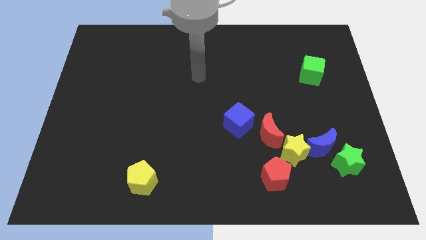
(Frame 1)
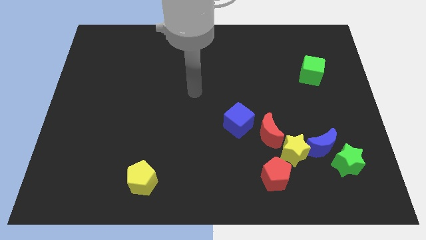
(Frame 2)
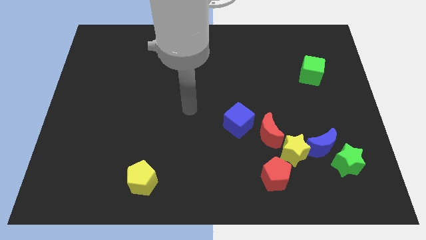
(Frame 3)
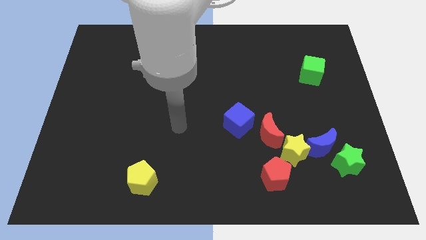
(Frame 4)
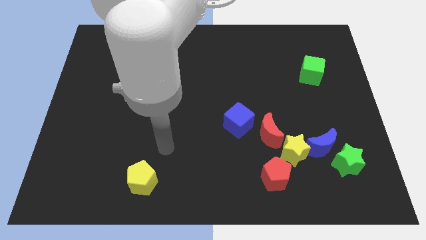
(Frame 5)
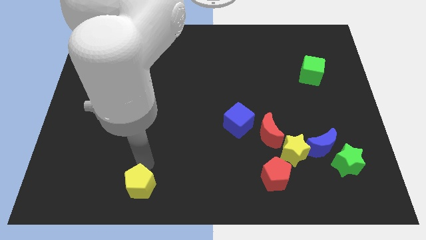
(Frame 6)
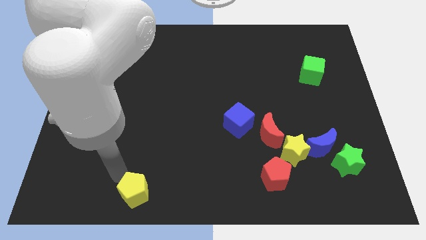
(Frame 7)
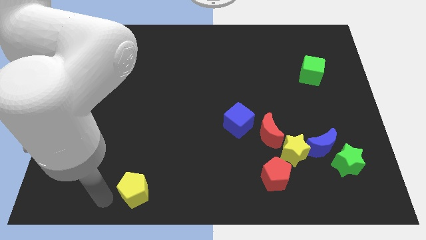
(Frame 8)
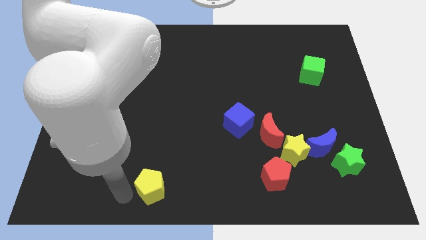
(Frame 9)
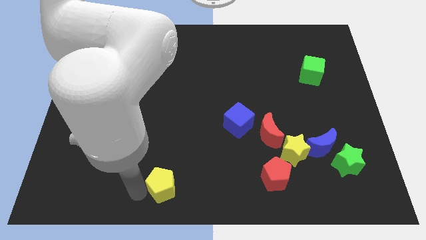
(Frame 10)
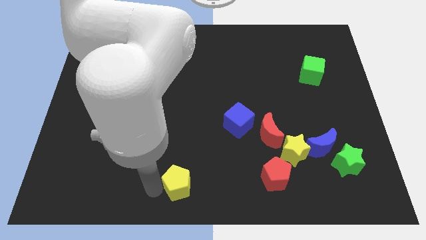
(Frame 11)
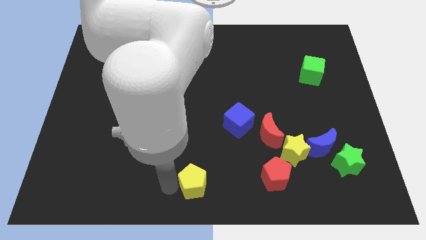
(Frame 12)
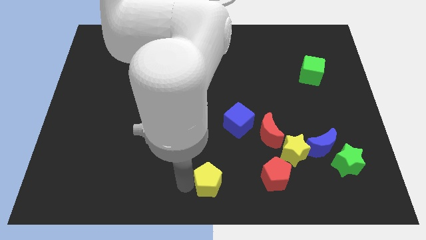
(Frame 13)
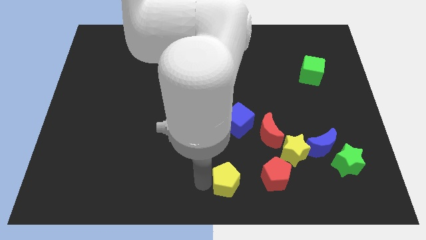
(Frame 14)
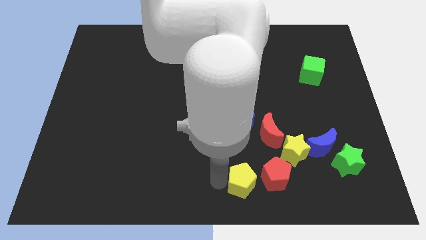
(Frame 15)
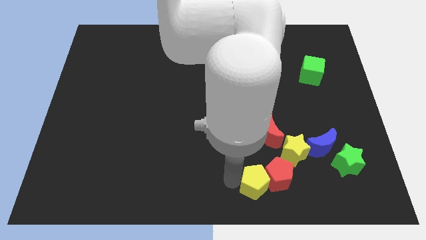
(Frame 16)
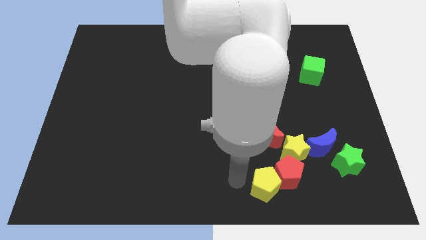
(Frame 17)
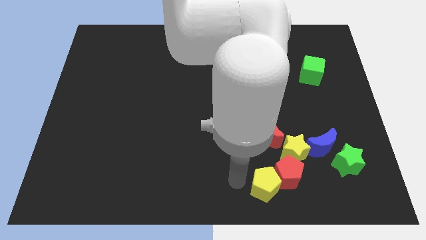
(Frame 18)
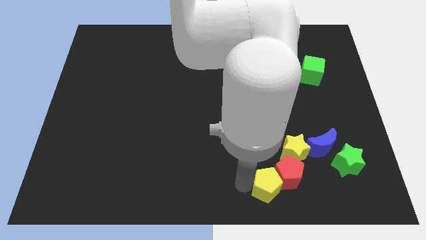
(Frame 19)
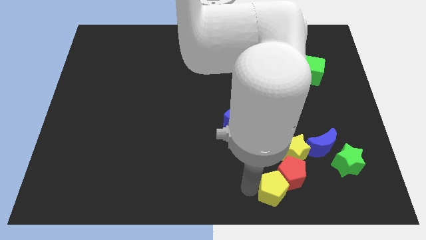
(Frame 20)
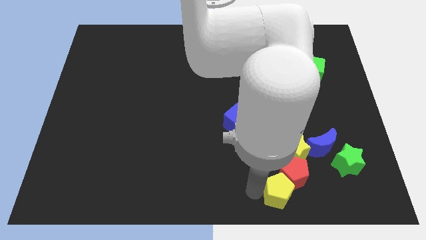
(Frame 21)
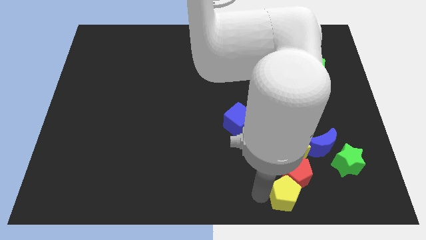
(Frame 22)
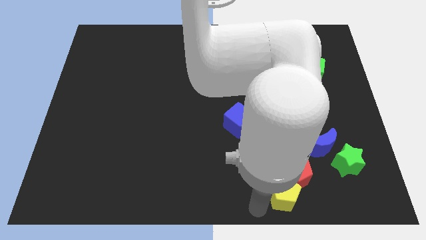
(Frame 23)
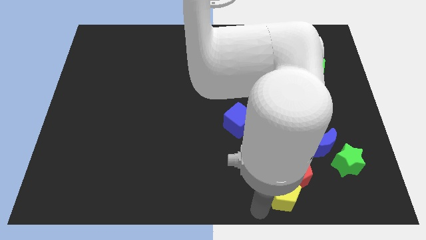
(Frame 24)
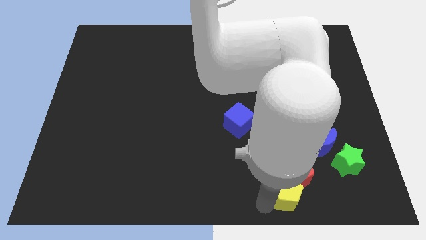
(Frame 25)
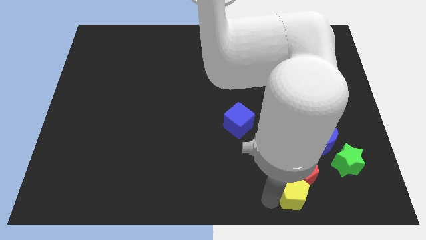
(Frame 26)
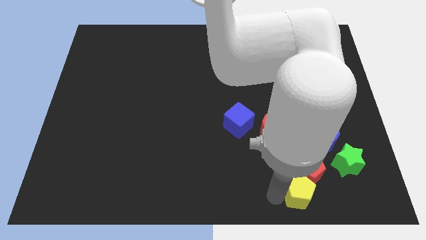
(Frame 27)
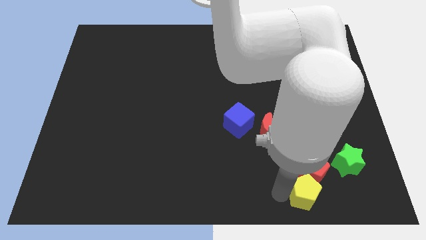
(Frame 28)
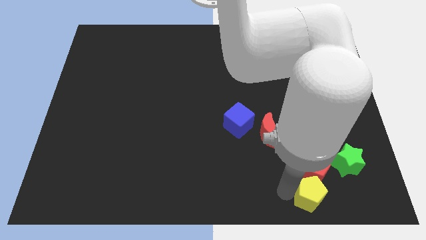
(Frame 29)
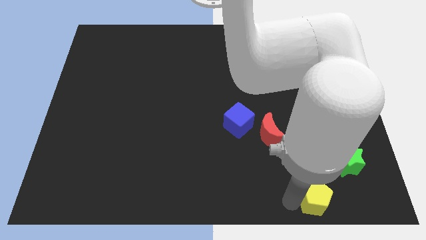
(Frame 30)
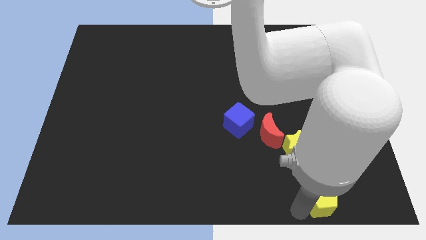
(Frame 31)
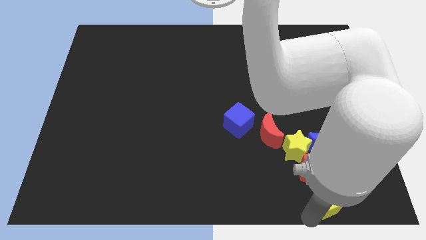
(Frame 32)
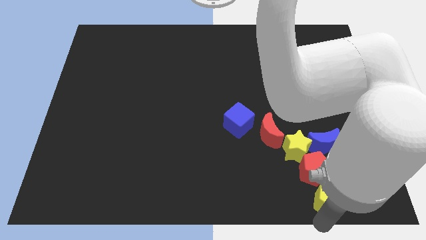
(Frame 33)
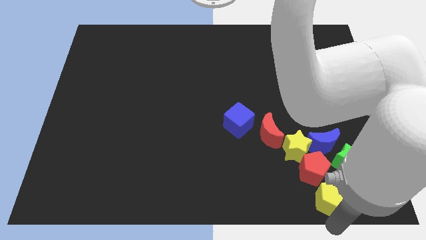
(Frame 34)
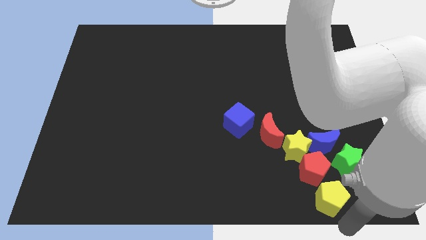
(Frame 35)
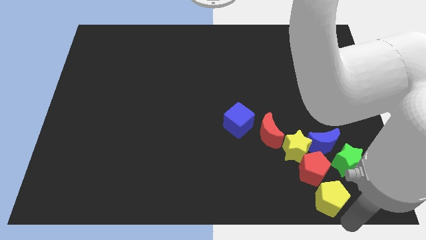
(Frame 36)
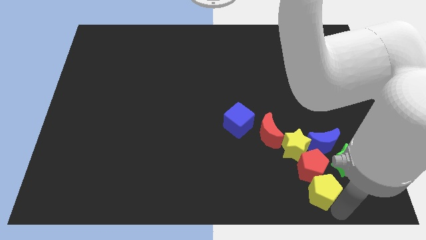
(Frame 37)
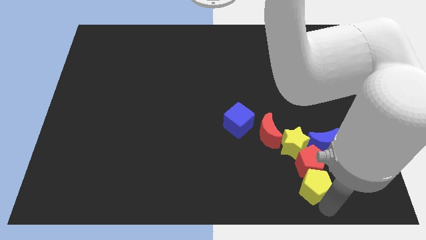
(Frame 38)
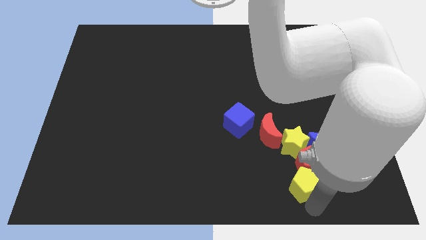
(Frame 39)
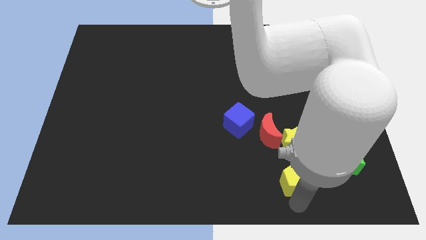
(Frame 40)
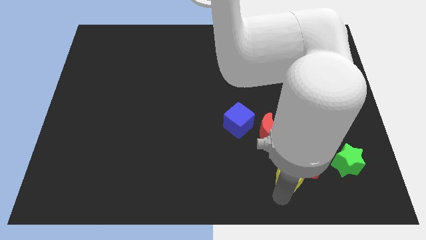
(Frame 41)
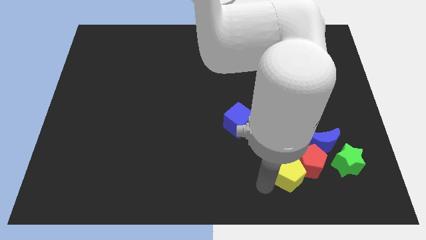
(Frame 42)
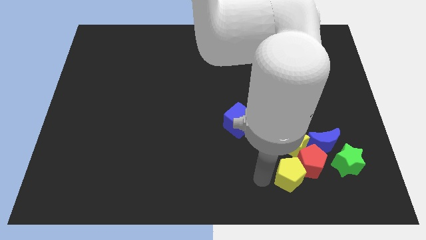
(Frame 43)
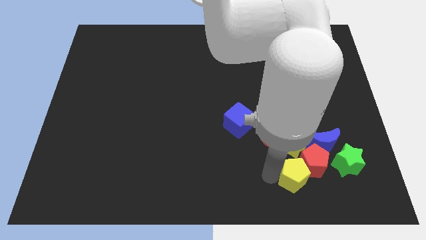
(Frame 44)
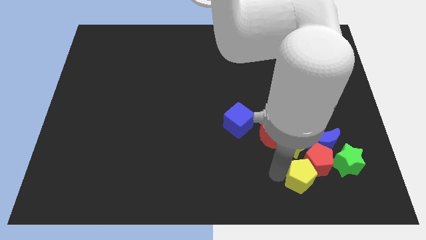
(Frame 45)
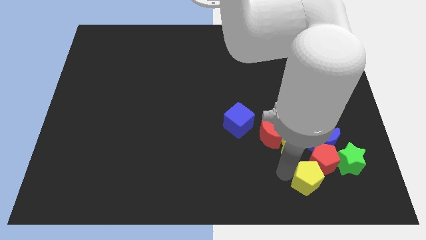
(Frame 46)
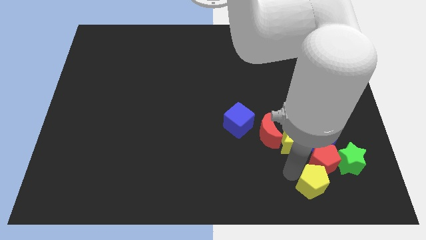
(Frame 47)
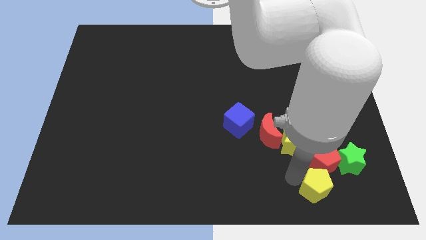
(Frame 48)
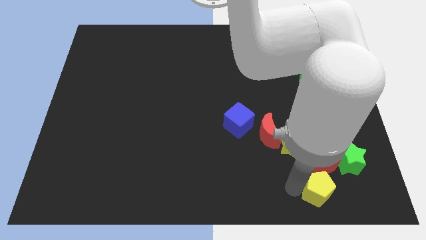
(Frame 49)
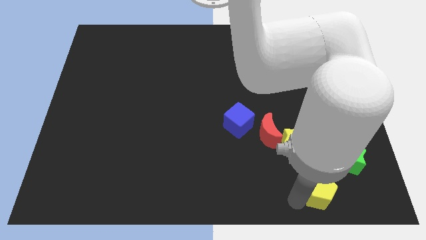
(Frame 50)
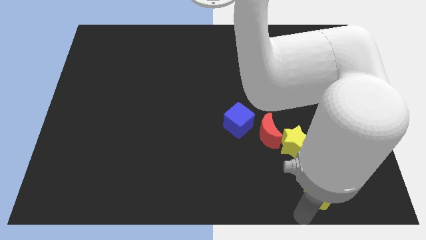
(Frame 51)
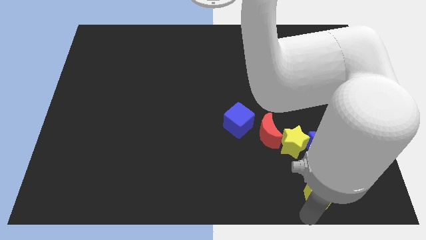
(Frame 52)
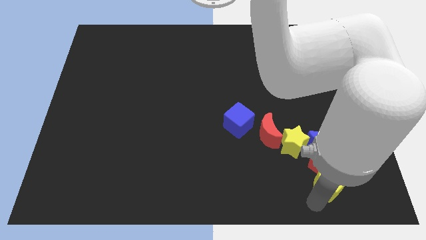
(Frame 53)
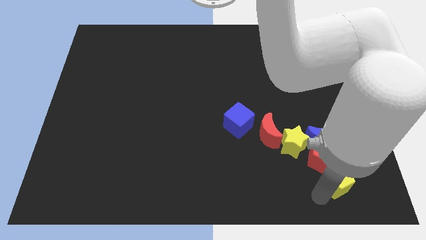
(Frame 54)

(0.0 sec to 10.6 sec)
push the yellow pentagon towards the green star

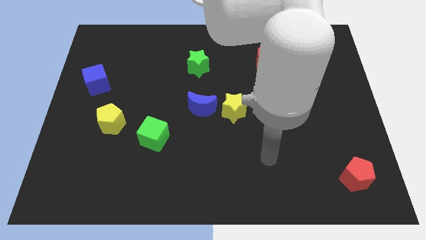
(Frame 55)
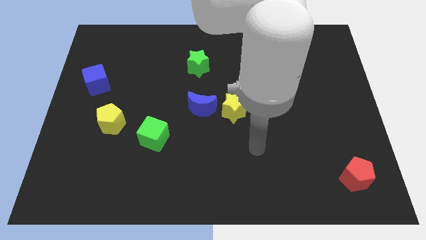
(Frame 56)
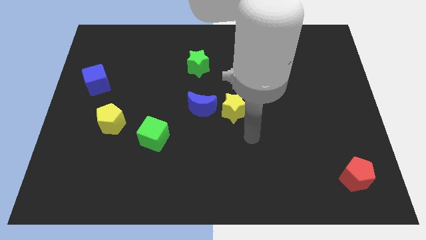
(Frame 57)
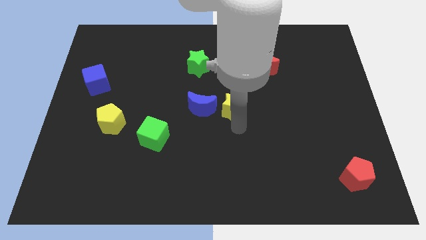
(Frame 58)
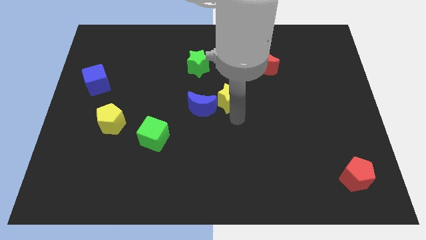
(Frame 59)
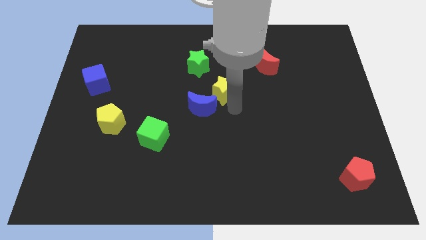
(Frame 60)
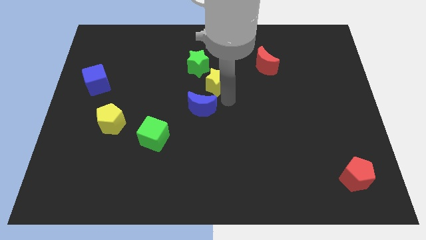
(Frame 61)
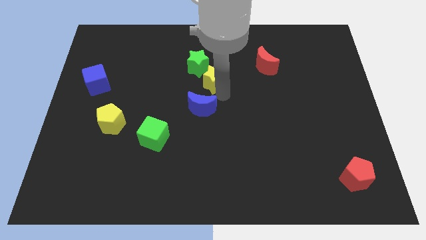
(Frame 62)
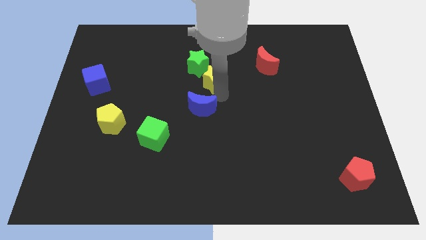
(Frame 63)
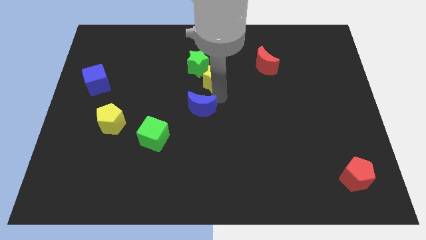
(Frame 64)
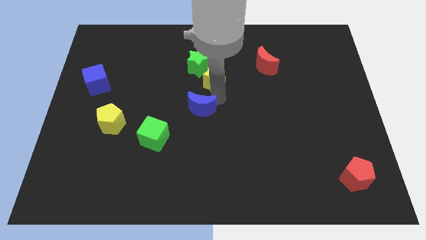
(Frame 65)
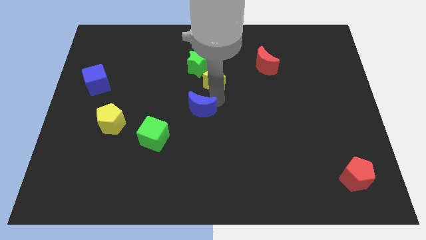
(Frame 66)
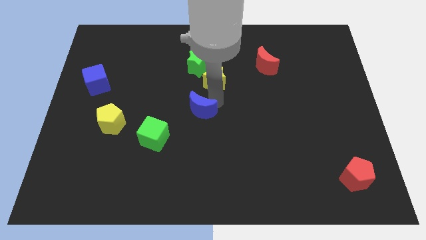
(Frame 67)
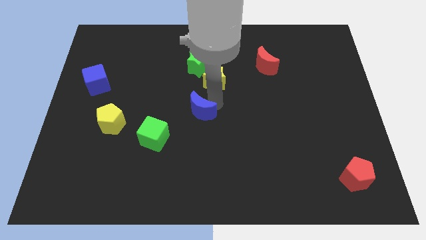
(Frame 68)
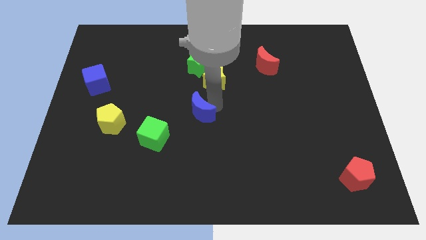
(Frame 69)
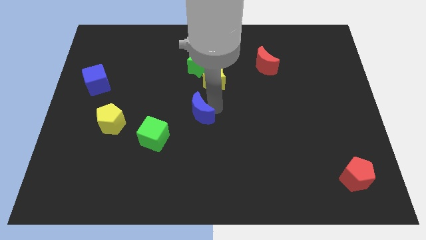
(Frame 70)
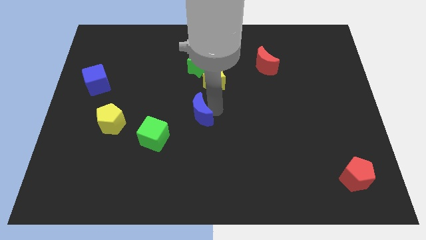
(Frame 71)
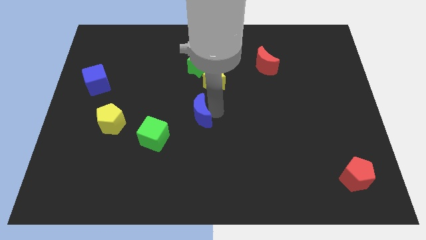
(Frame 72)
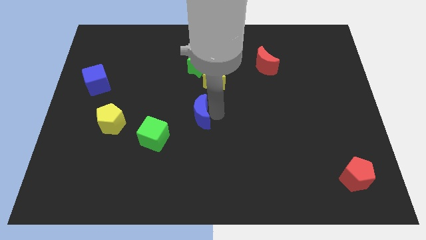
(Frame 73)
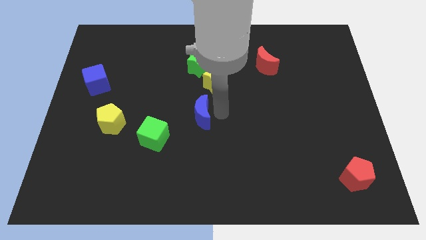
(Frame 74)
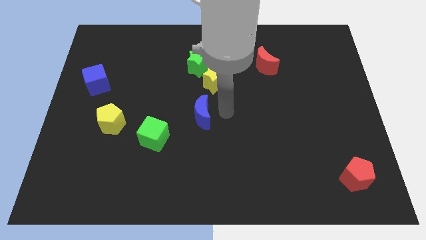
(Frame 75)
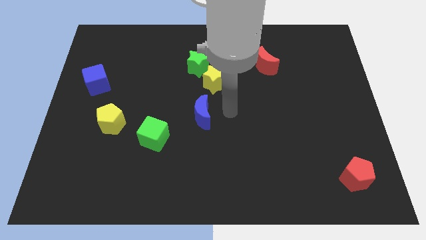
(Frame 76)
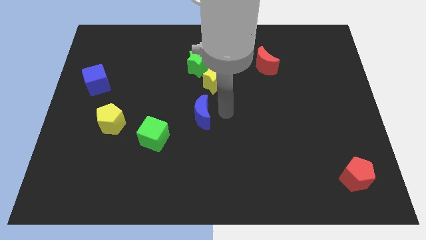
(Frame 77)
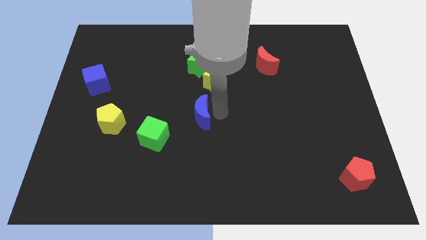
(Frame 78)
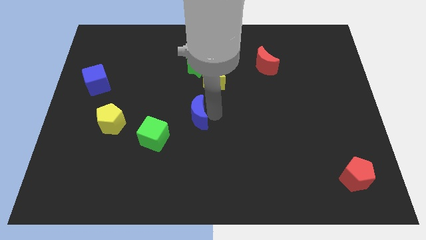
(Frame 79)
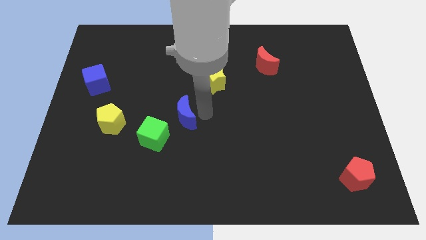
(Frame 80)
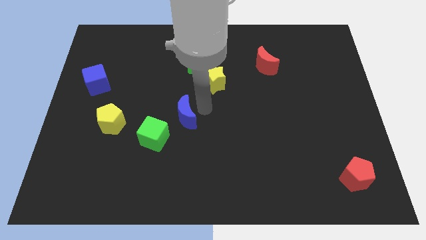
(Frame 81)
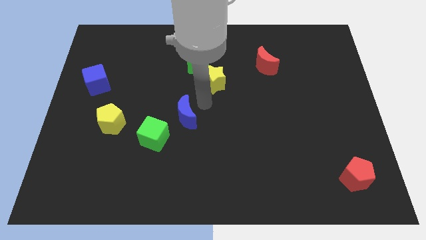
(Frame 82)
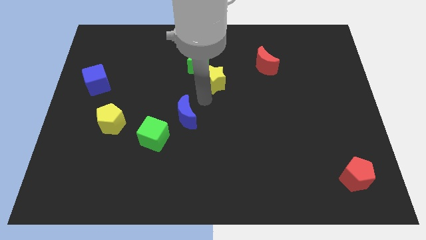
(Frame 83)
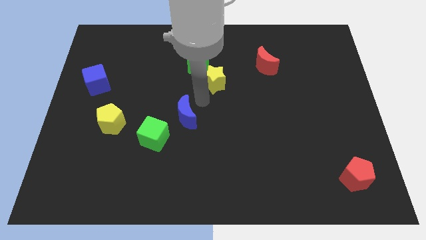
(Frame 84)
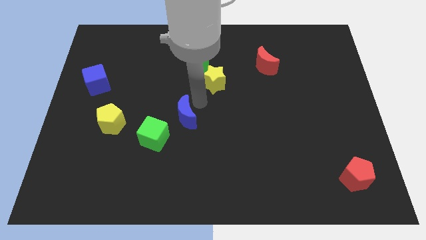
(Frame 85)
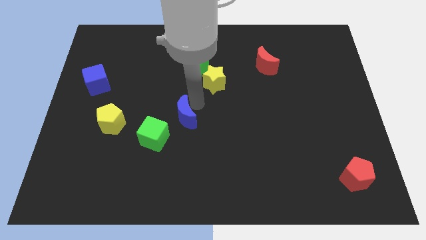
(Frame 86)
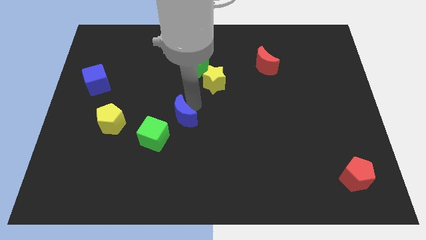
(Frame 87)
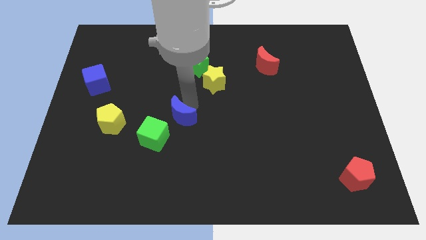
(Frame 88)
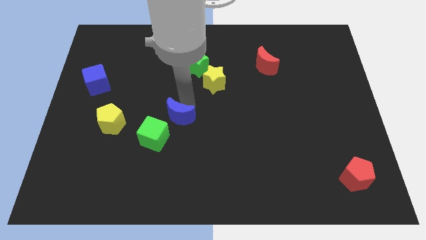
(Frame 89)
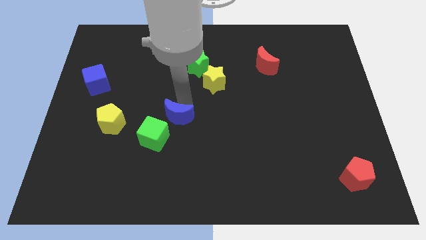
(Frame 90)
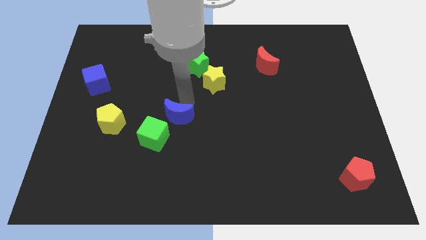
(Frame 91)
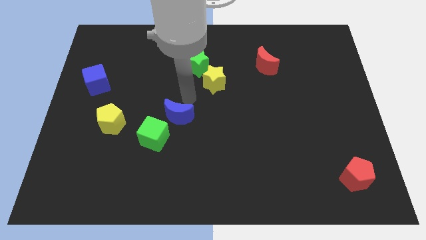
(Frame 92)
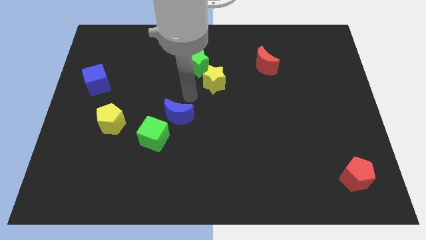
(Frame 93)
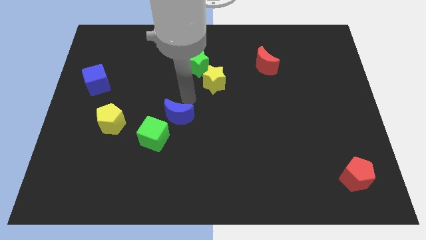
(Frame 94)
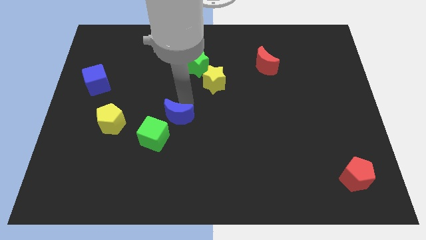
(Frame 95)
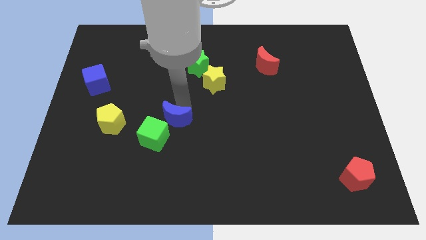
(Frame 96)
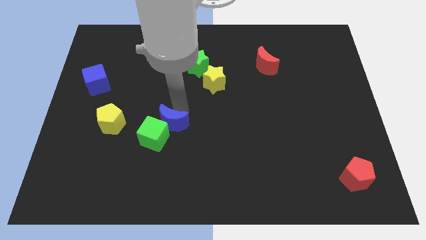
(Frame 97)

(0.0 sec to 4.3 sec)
slide the blue moon close to the green cube
